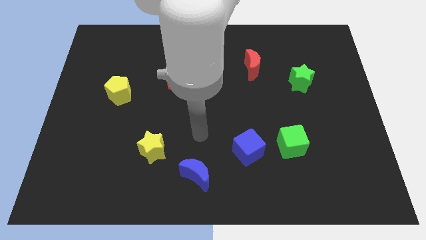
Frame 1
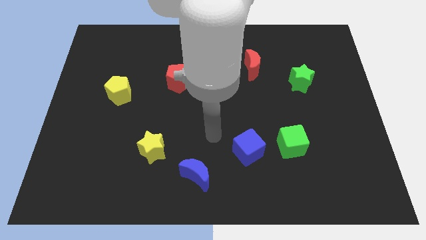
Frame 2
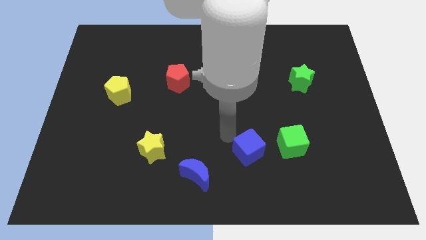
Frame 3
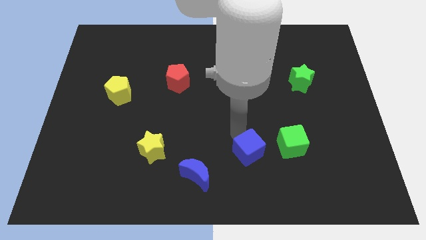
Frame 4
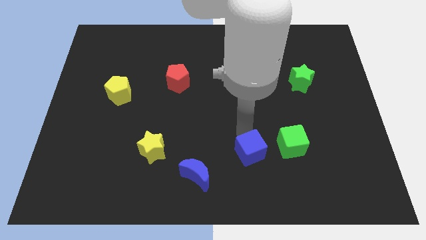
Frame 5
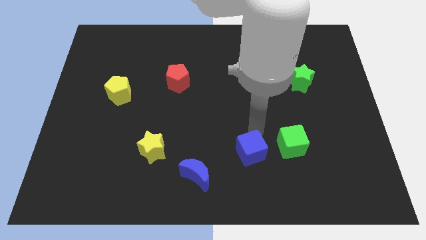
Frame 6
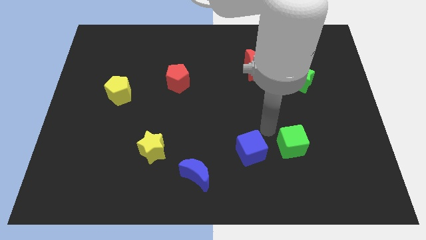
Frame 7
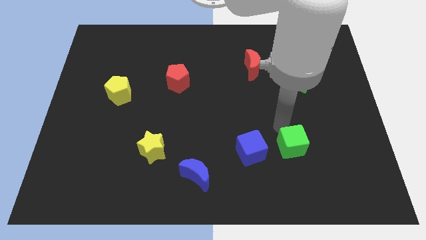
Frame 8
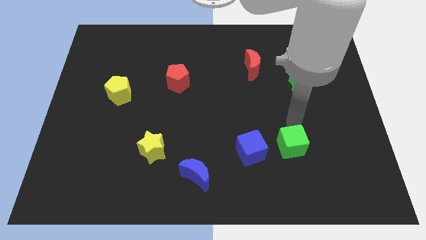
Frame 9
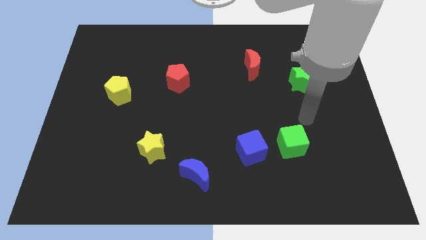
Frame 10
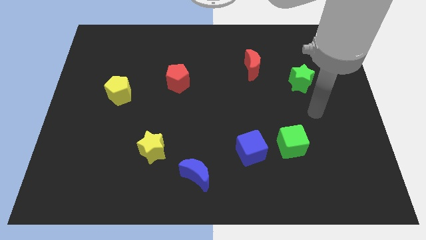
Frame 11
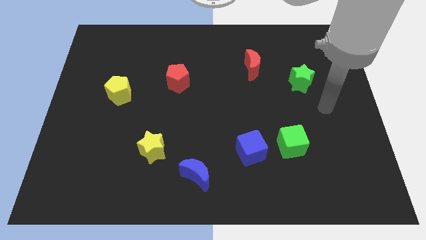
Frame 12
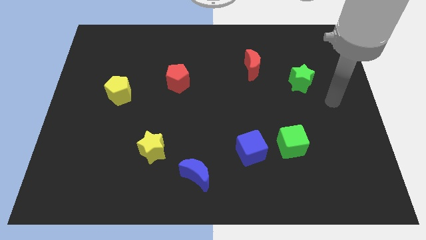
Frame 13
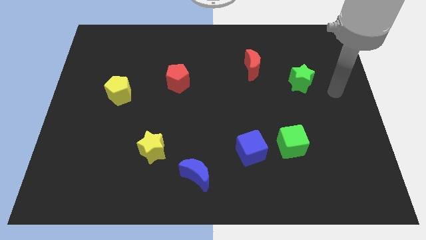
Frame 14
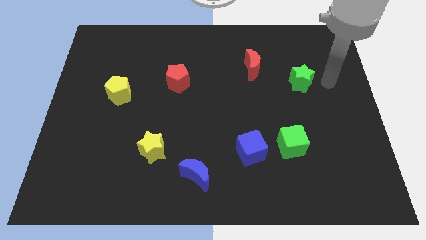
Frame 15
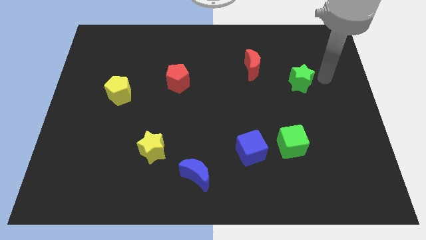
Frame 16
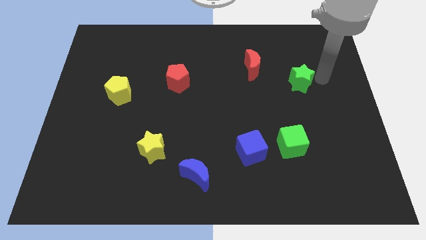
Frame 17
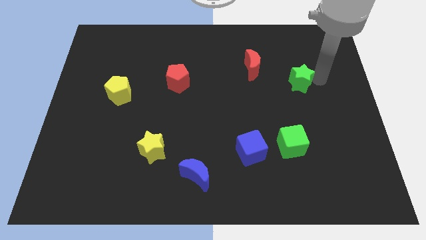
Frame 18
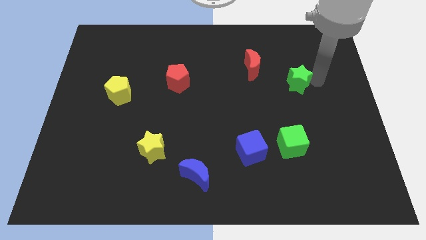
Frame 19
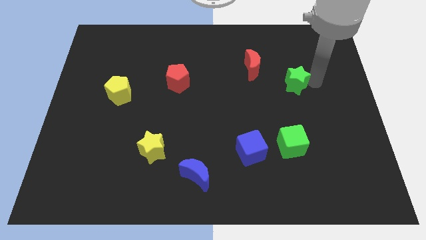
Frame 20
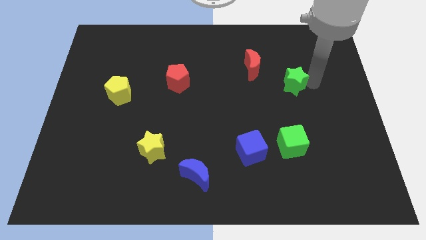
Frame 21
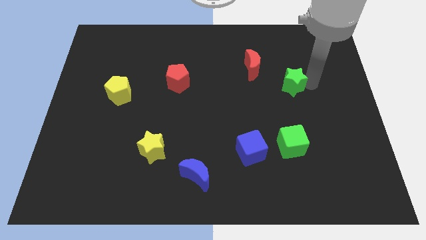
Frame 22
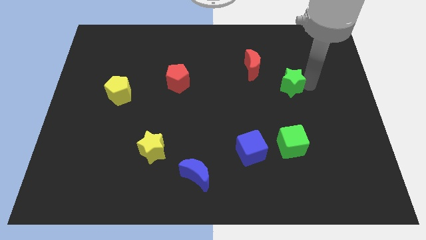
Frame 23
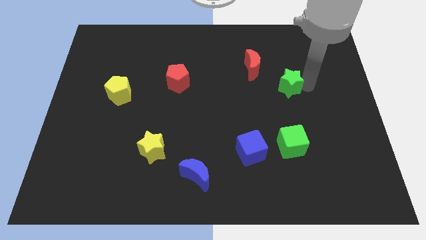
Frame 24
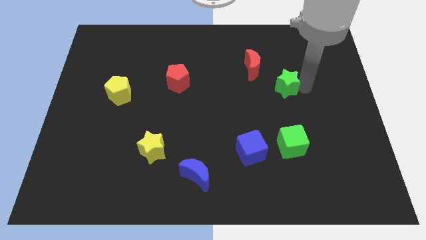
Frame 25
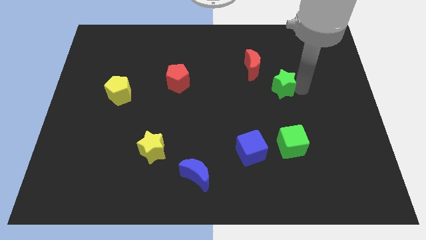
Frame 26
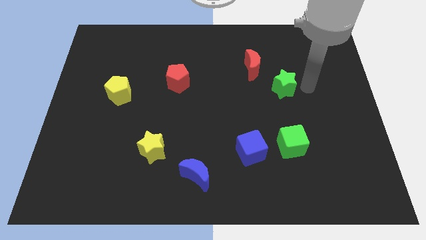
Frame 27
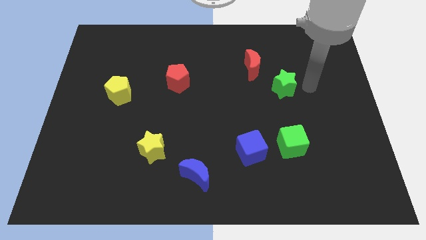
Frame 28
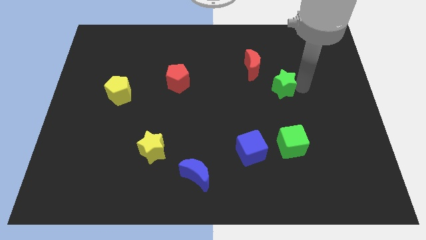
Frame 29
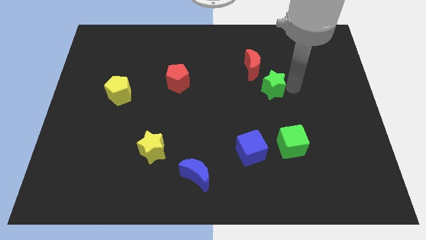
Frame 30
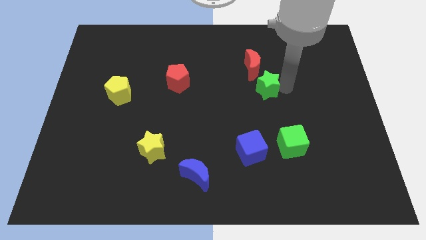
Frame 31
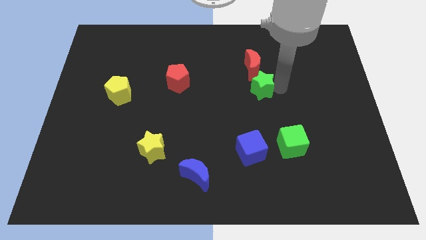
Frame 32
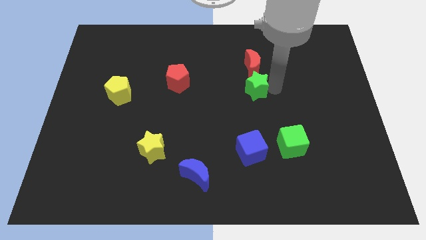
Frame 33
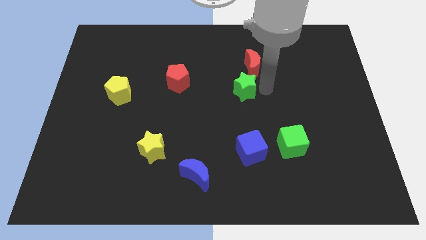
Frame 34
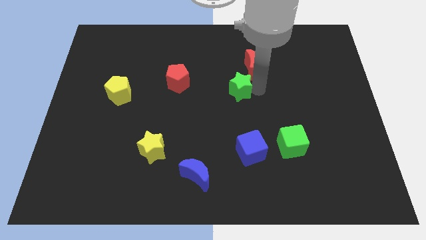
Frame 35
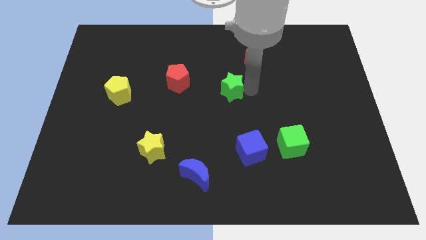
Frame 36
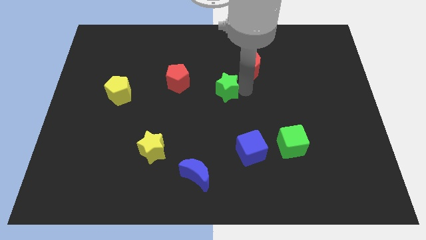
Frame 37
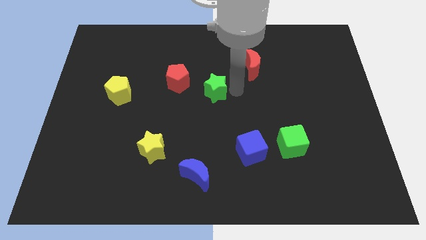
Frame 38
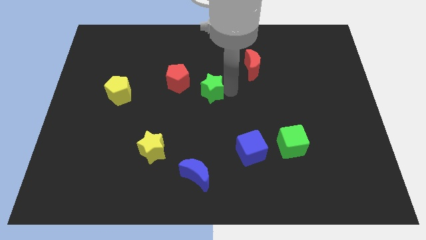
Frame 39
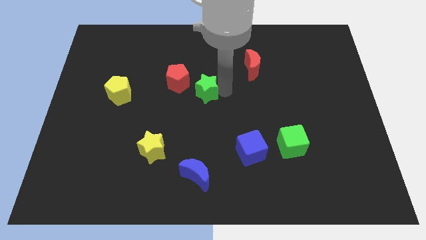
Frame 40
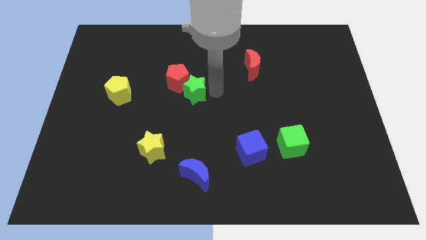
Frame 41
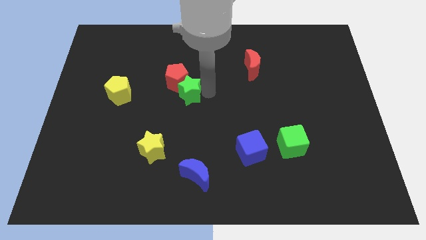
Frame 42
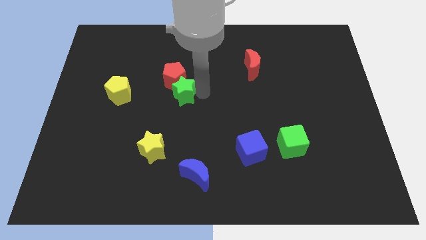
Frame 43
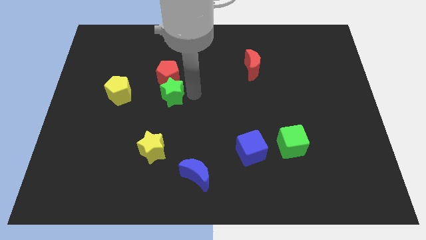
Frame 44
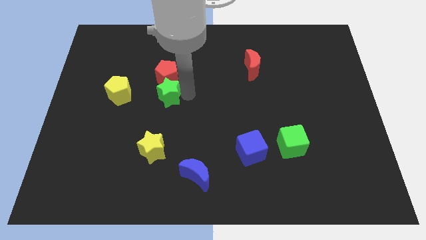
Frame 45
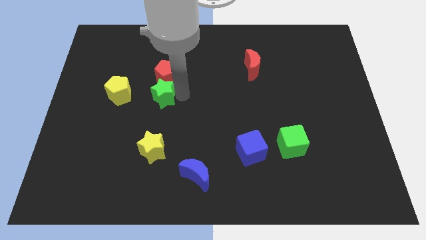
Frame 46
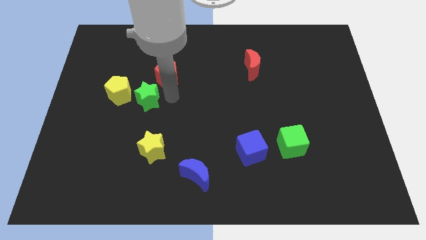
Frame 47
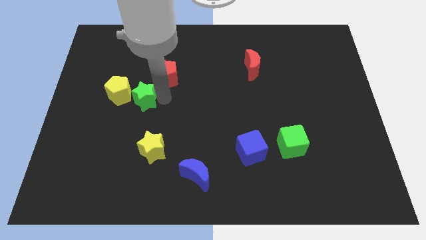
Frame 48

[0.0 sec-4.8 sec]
push the green star towards the yellow pentagon

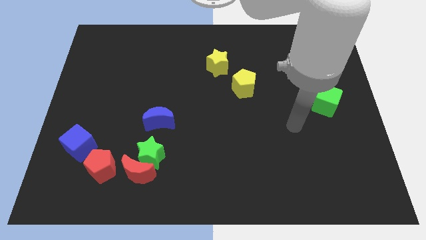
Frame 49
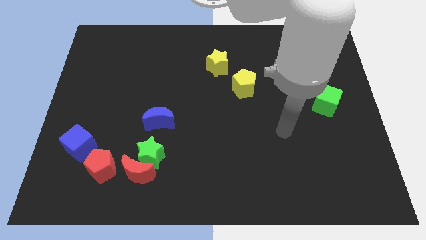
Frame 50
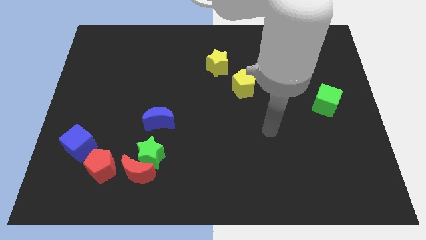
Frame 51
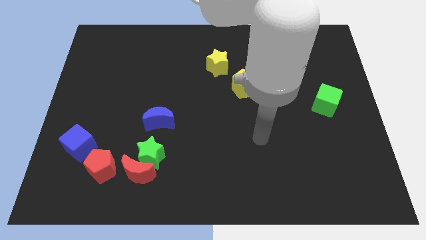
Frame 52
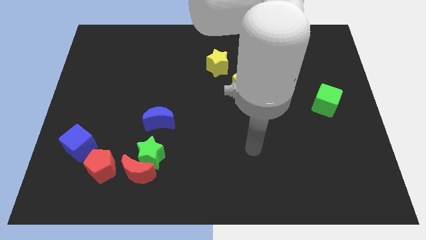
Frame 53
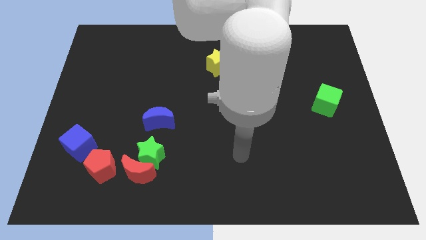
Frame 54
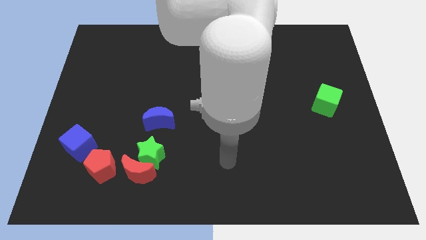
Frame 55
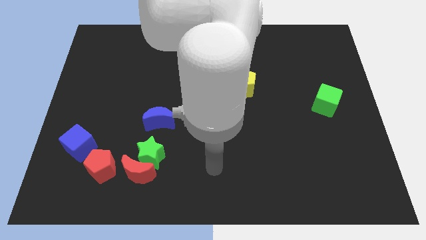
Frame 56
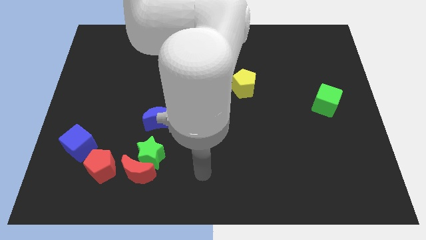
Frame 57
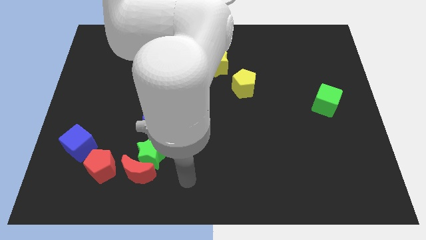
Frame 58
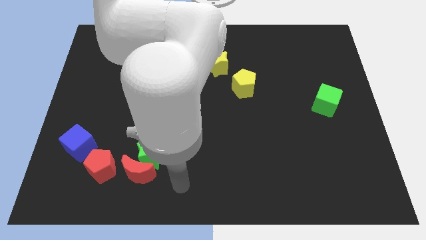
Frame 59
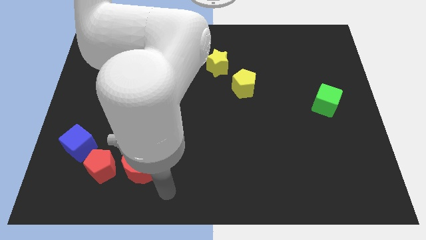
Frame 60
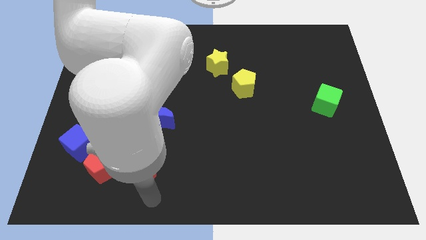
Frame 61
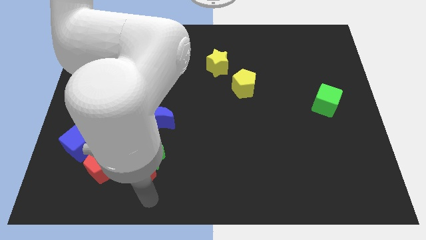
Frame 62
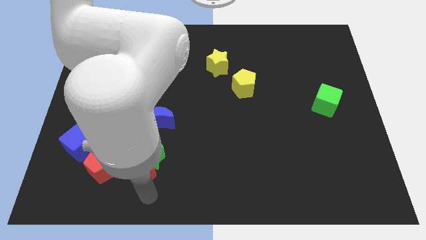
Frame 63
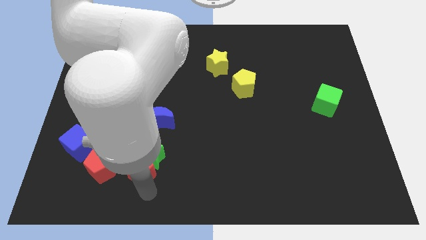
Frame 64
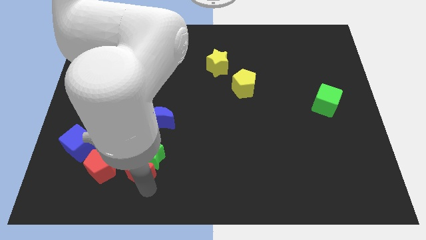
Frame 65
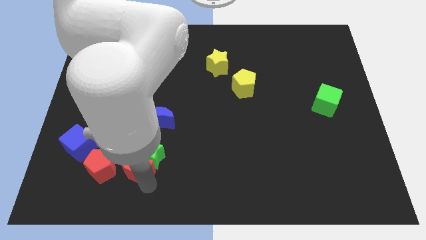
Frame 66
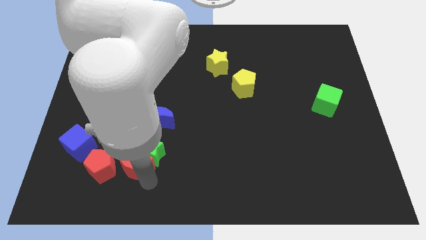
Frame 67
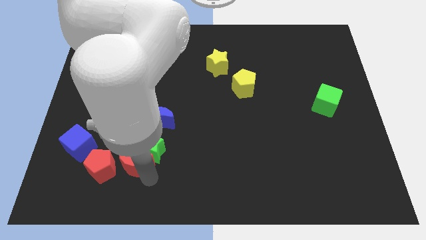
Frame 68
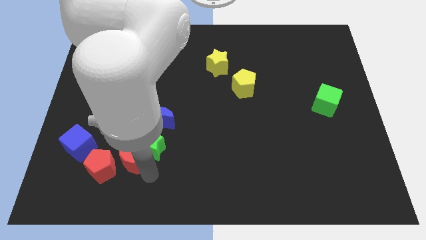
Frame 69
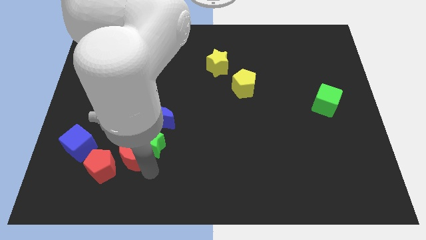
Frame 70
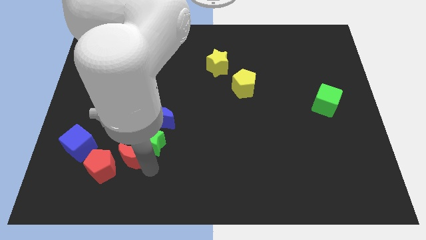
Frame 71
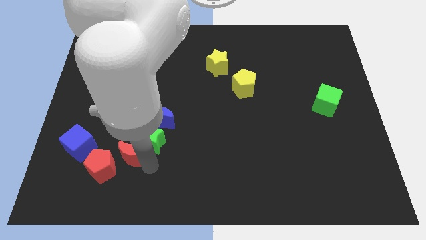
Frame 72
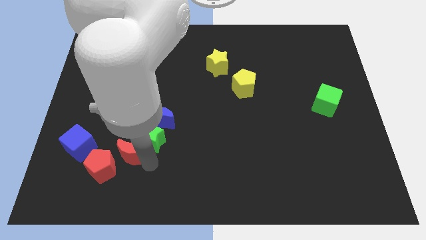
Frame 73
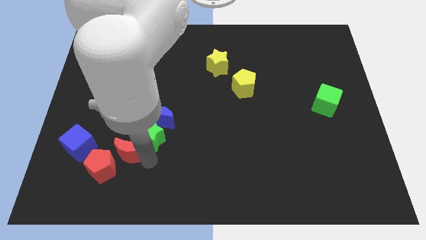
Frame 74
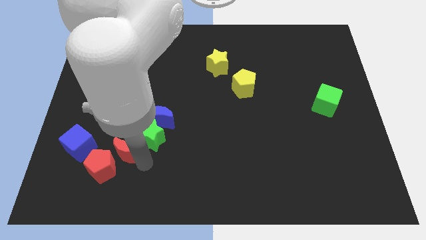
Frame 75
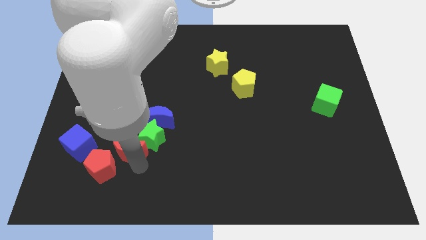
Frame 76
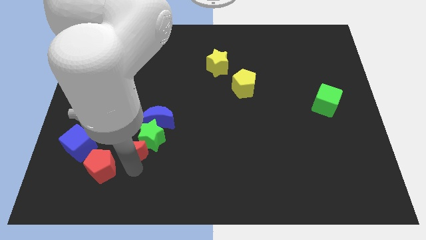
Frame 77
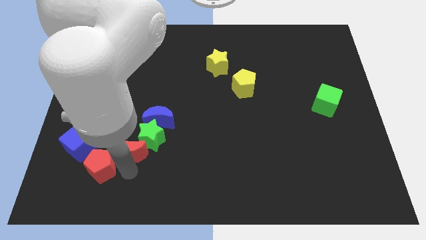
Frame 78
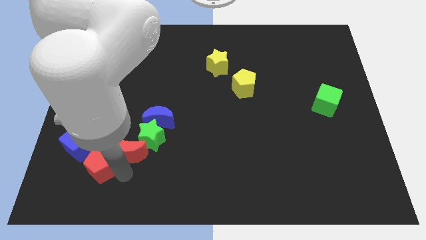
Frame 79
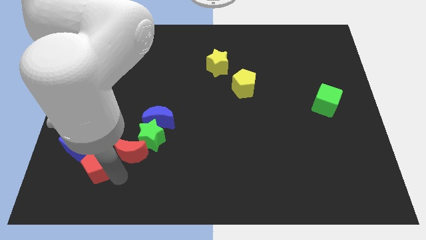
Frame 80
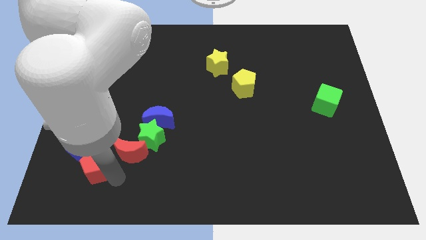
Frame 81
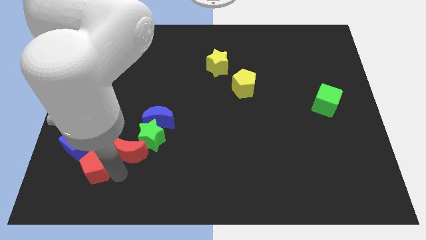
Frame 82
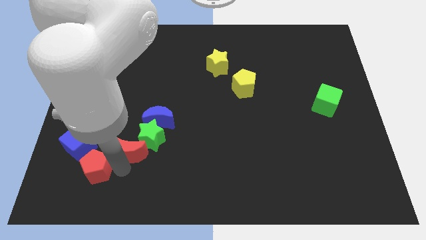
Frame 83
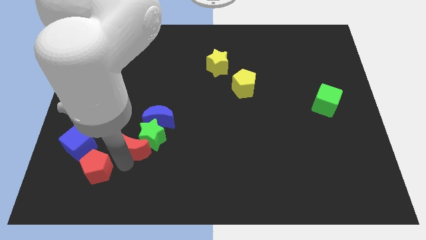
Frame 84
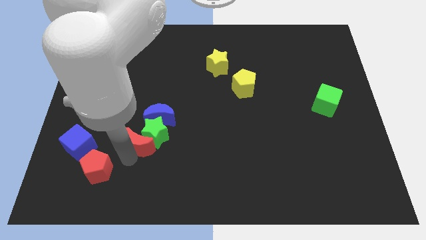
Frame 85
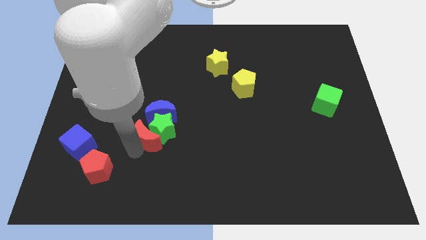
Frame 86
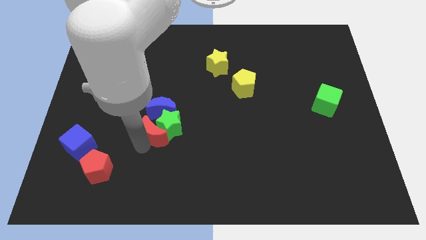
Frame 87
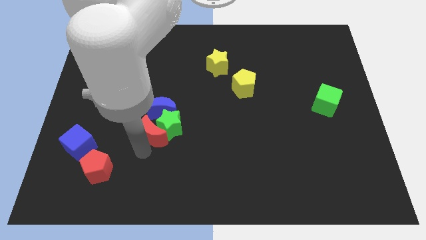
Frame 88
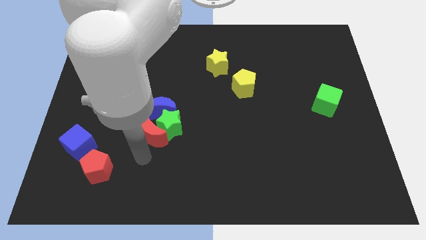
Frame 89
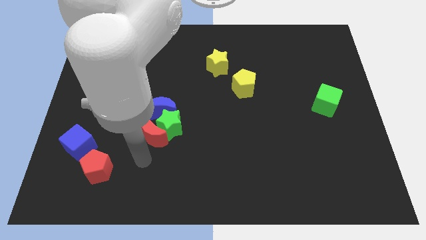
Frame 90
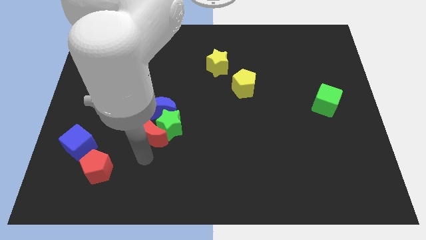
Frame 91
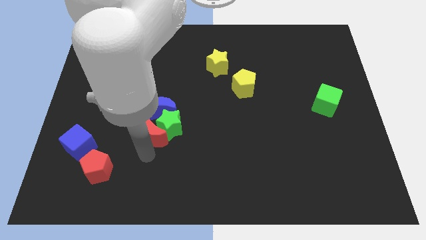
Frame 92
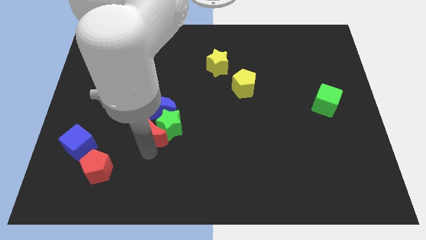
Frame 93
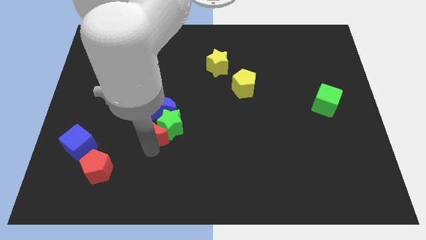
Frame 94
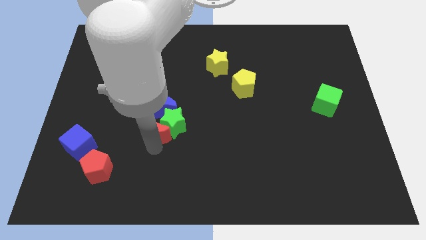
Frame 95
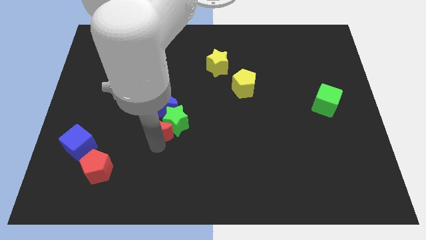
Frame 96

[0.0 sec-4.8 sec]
push the red moon to the blue moon
